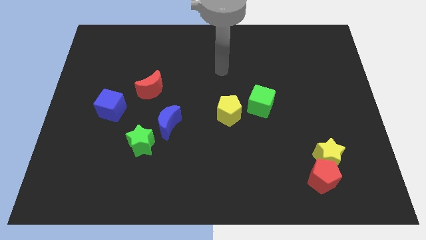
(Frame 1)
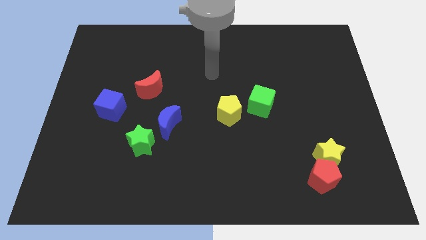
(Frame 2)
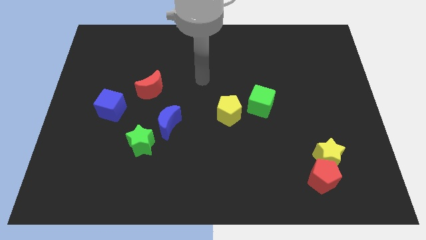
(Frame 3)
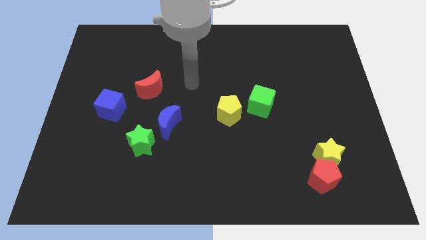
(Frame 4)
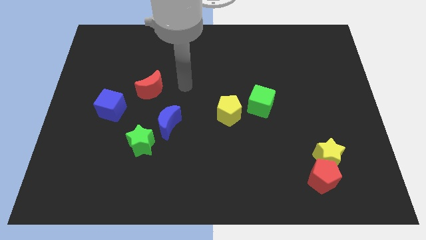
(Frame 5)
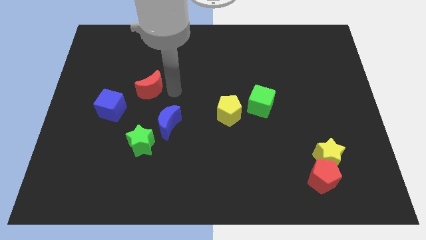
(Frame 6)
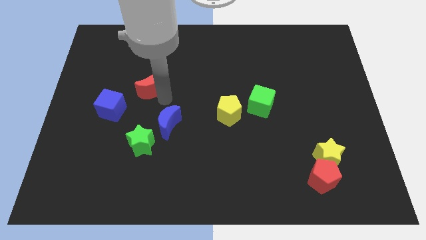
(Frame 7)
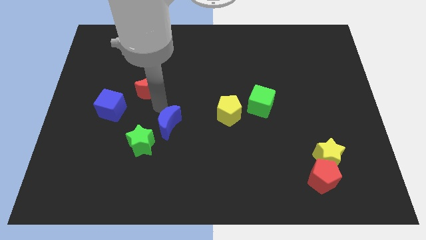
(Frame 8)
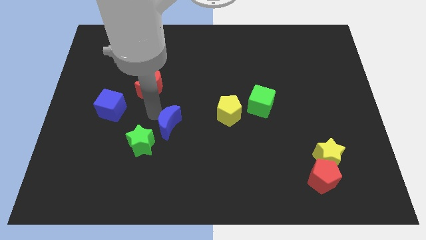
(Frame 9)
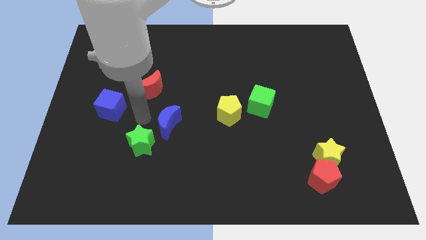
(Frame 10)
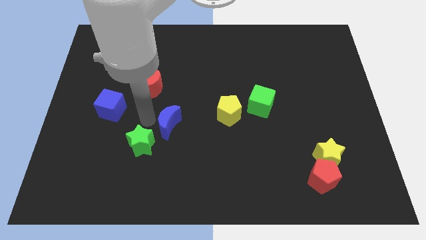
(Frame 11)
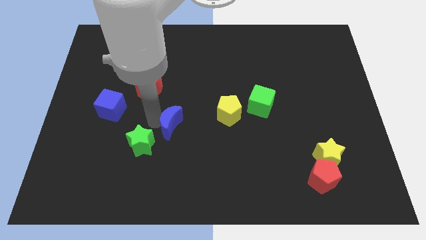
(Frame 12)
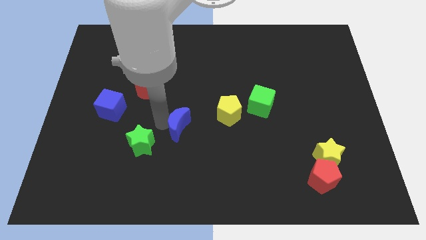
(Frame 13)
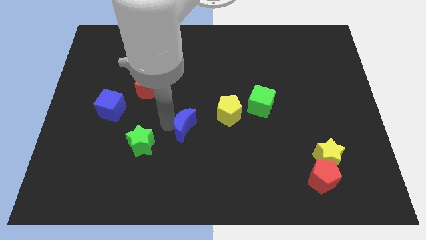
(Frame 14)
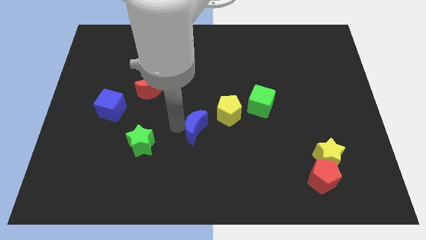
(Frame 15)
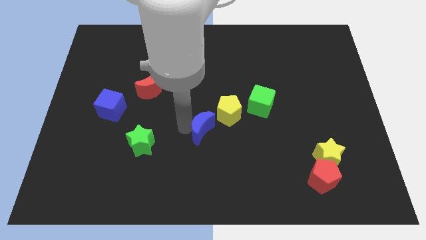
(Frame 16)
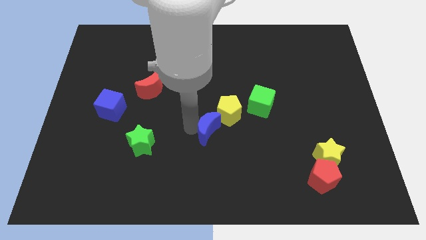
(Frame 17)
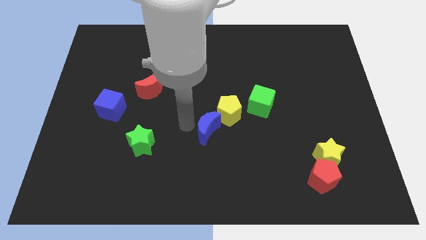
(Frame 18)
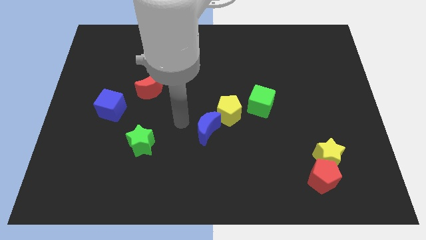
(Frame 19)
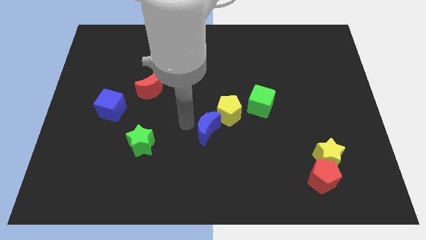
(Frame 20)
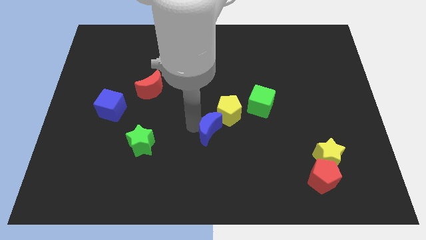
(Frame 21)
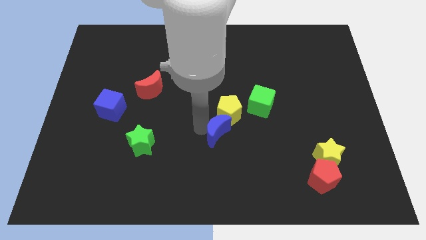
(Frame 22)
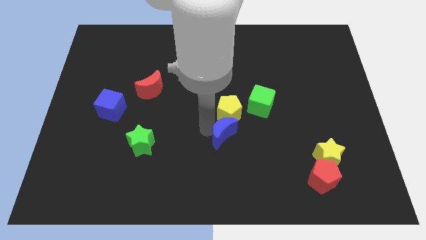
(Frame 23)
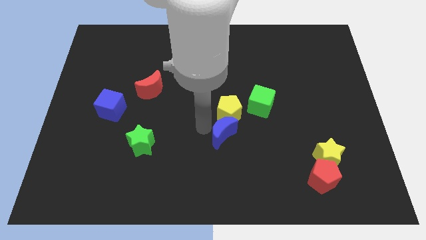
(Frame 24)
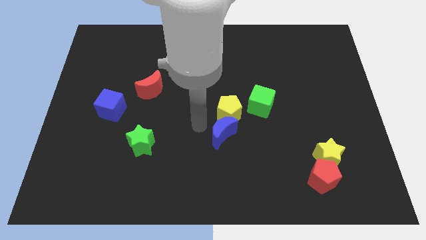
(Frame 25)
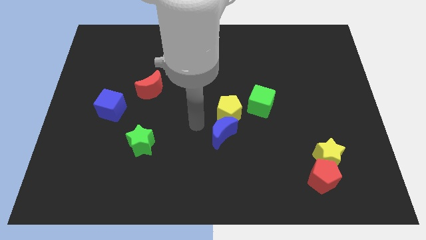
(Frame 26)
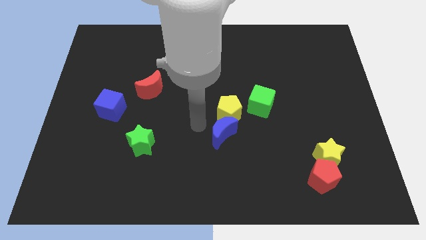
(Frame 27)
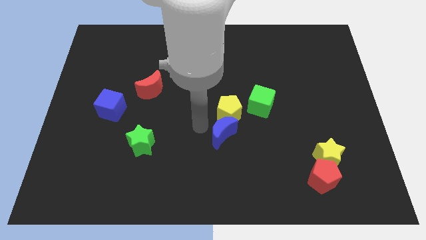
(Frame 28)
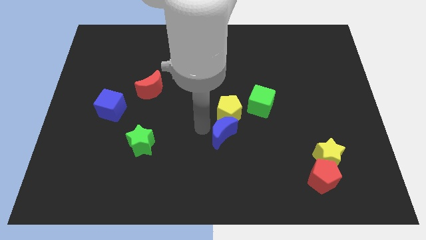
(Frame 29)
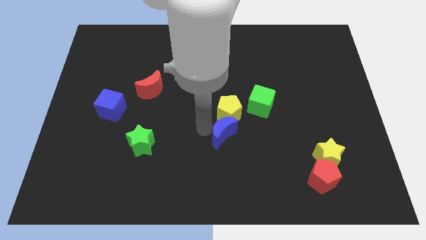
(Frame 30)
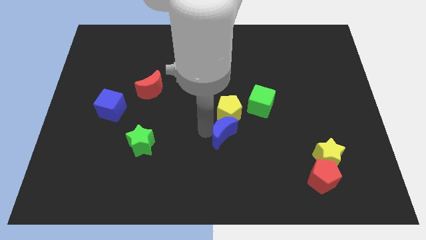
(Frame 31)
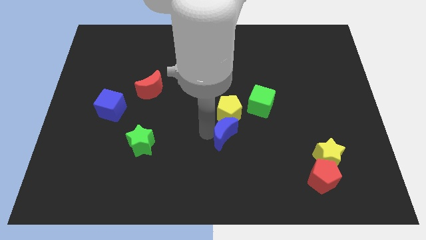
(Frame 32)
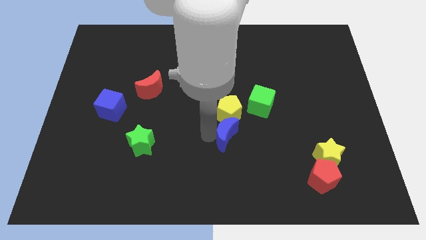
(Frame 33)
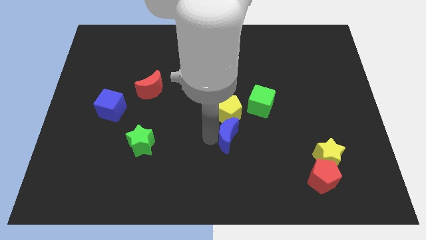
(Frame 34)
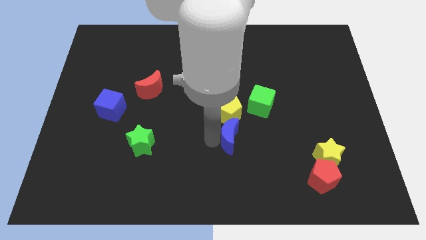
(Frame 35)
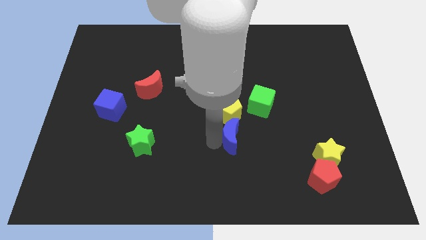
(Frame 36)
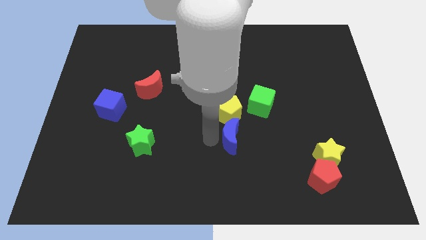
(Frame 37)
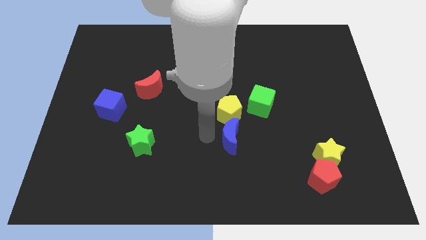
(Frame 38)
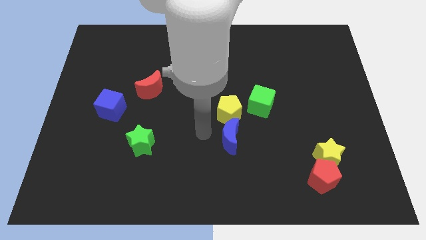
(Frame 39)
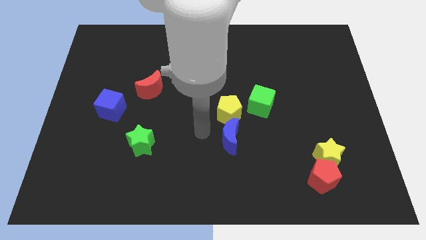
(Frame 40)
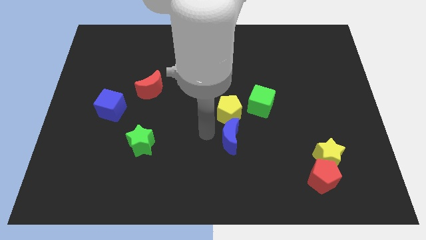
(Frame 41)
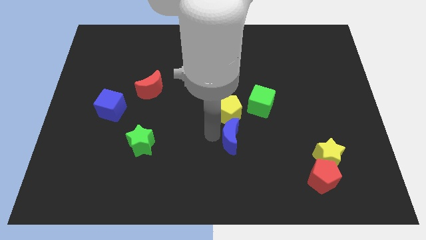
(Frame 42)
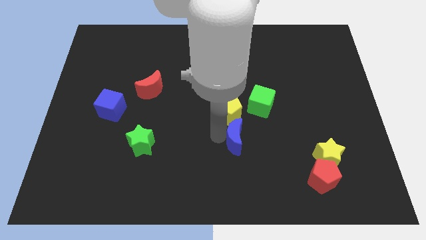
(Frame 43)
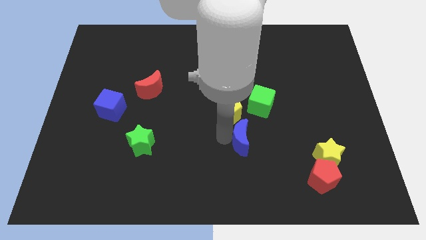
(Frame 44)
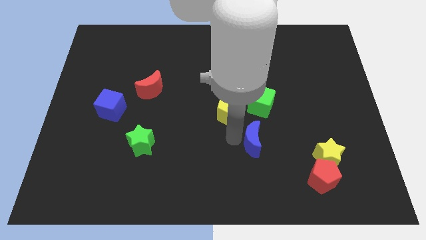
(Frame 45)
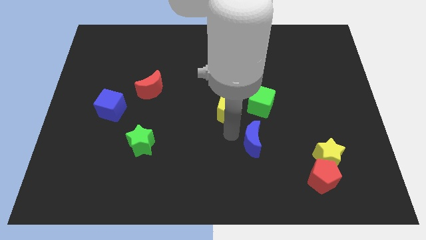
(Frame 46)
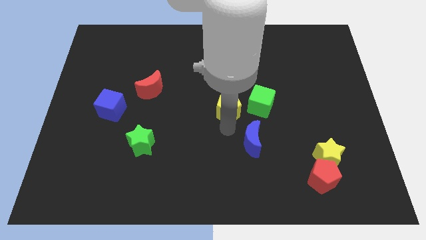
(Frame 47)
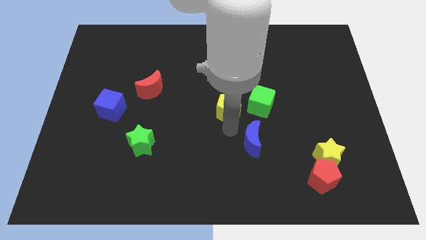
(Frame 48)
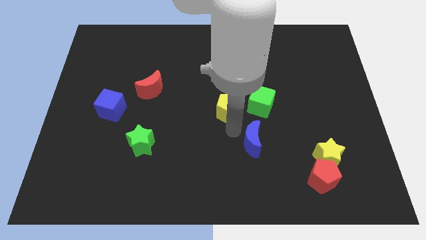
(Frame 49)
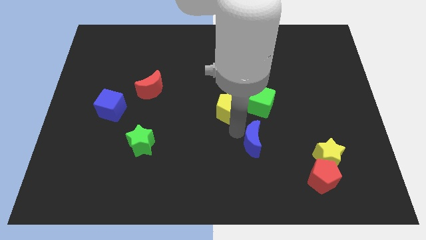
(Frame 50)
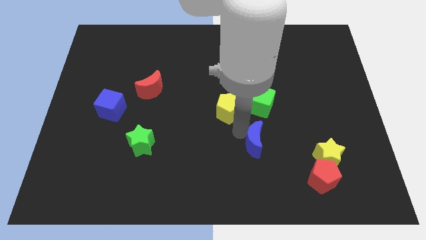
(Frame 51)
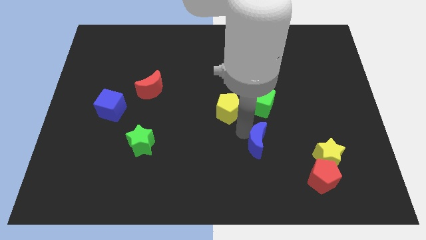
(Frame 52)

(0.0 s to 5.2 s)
move the blue moon to the left side of the yellow star

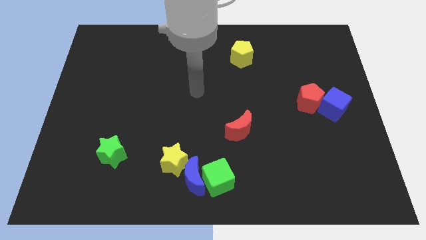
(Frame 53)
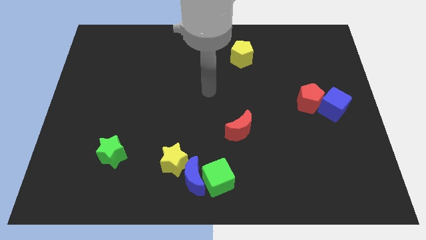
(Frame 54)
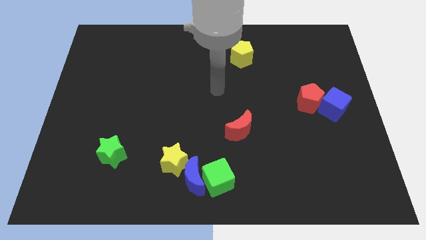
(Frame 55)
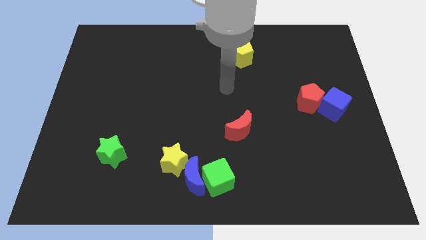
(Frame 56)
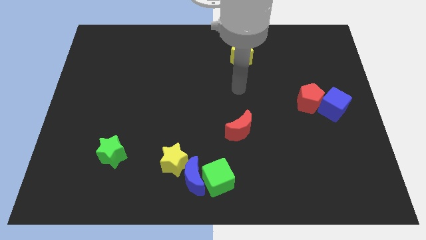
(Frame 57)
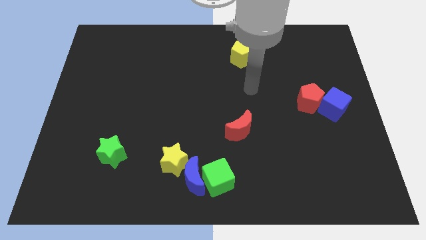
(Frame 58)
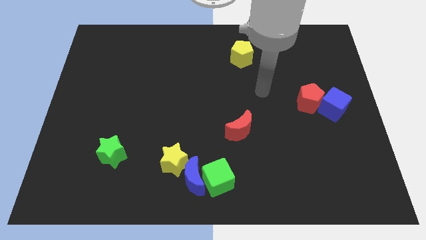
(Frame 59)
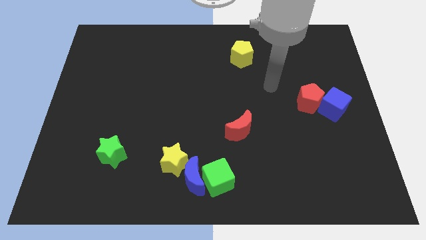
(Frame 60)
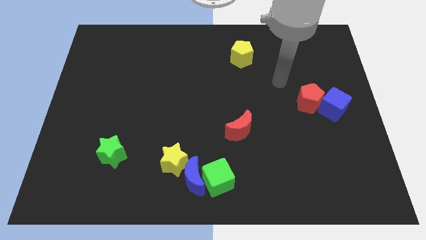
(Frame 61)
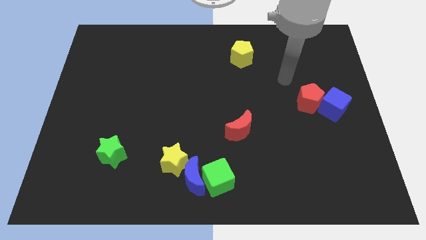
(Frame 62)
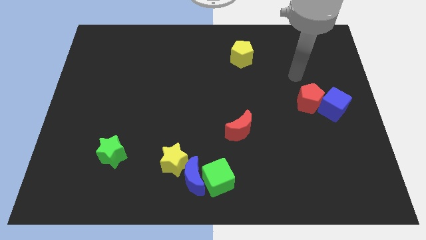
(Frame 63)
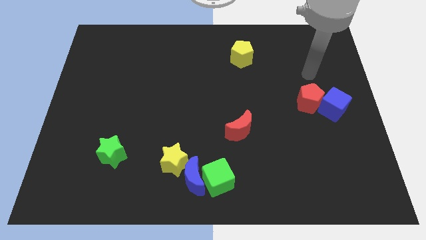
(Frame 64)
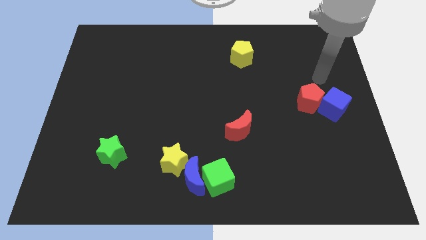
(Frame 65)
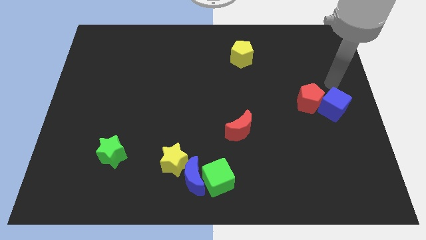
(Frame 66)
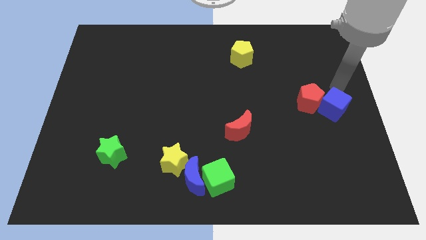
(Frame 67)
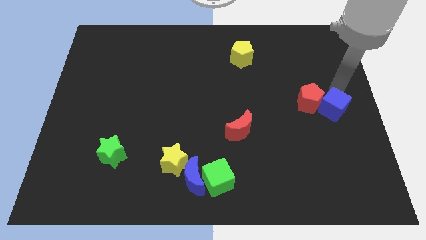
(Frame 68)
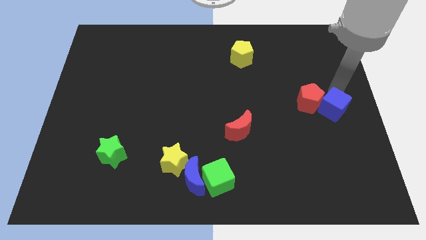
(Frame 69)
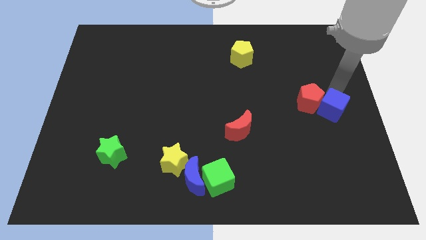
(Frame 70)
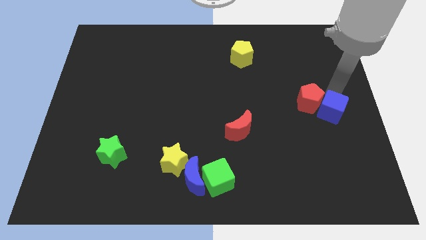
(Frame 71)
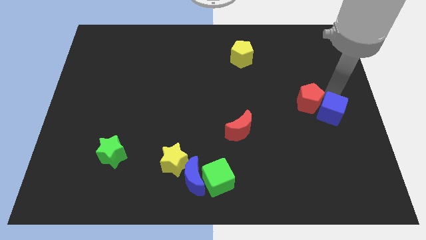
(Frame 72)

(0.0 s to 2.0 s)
slide the blue cube to the bottom side of the red pentagon

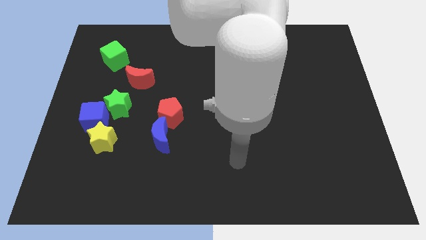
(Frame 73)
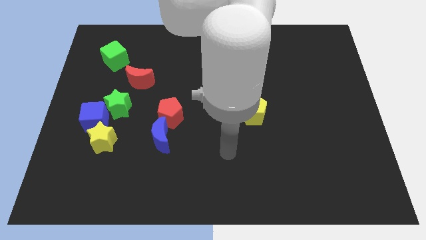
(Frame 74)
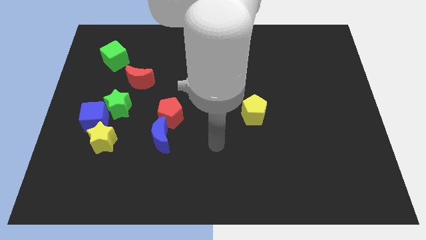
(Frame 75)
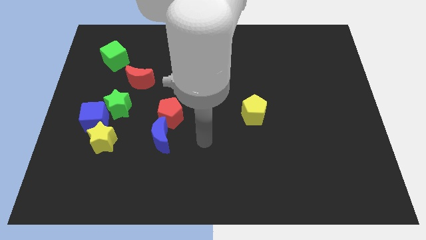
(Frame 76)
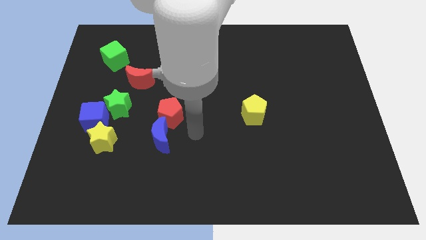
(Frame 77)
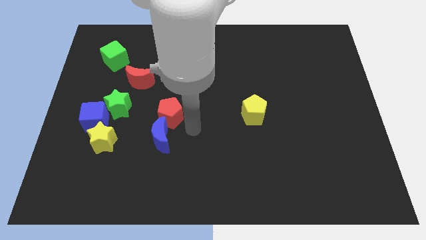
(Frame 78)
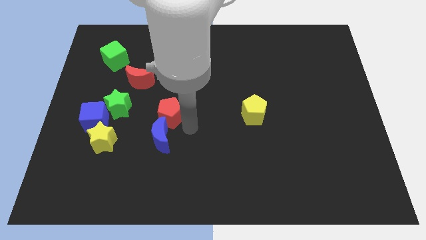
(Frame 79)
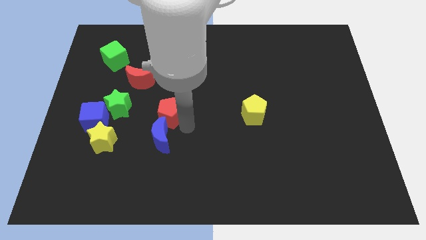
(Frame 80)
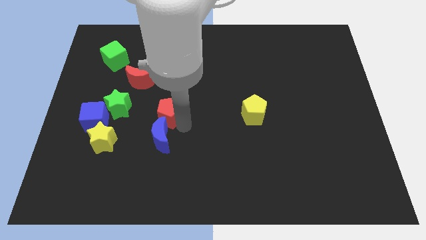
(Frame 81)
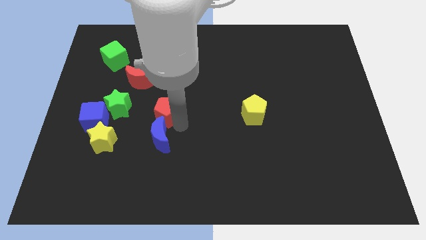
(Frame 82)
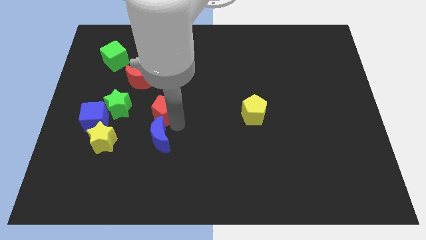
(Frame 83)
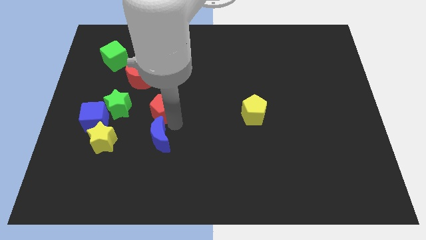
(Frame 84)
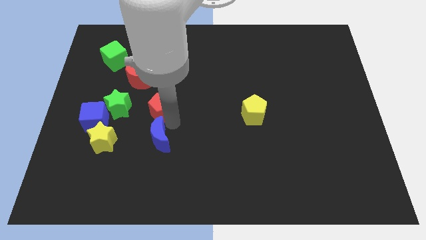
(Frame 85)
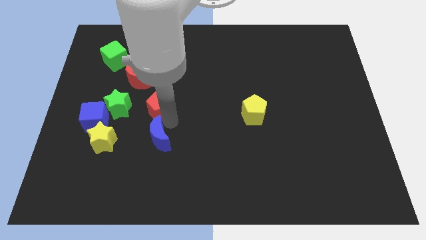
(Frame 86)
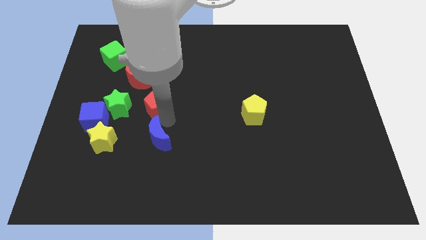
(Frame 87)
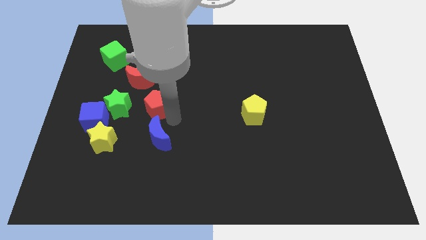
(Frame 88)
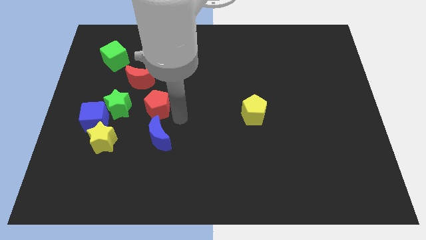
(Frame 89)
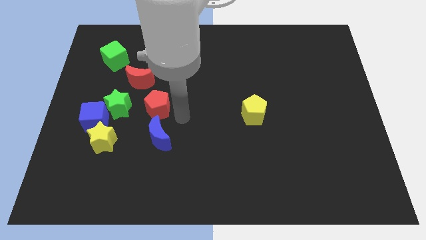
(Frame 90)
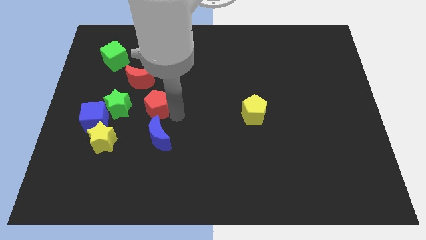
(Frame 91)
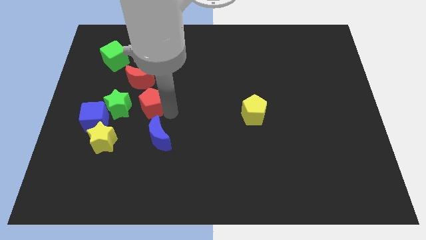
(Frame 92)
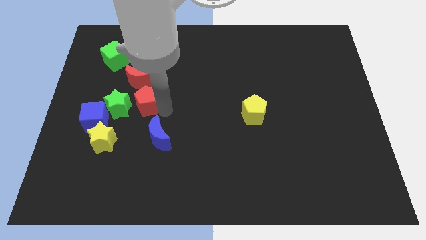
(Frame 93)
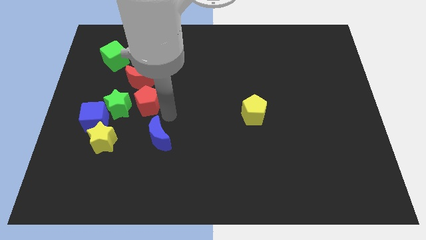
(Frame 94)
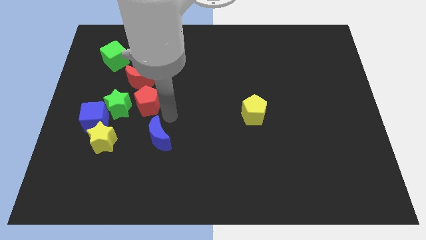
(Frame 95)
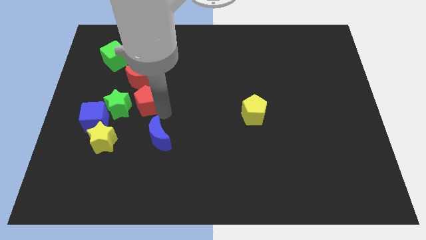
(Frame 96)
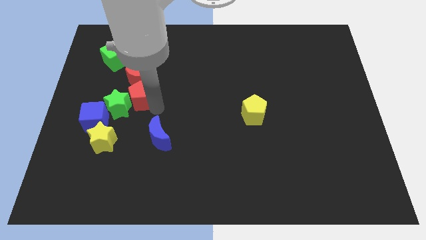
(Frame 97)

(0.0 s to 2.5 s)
slide the red pentagon to the bottom left of the red moon
